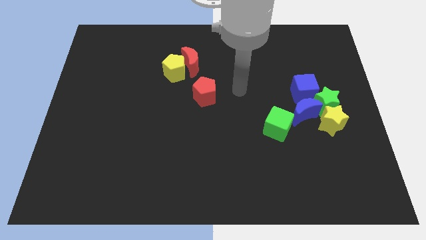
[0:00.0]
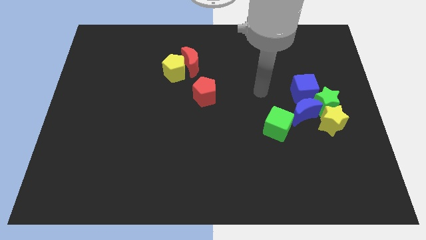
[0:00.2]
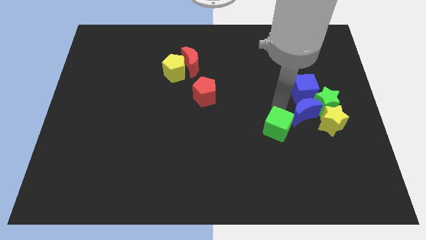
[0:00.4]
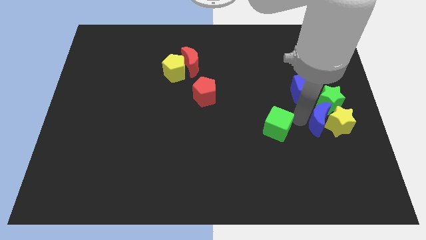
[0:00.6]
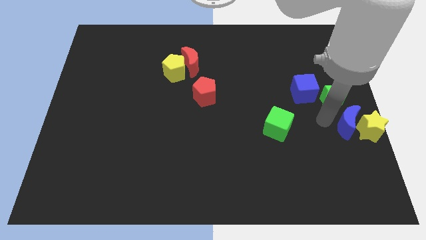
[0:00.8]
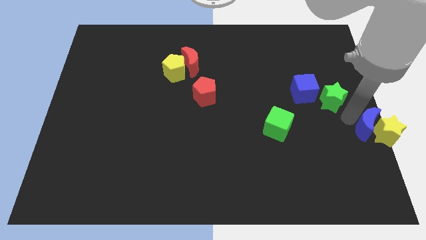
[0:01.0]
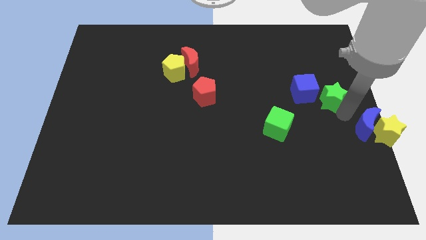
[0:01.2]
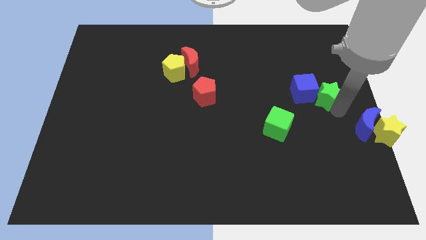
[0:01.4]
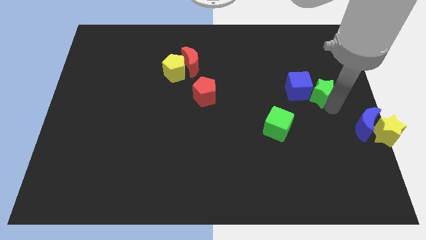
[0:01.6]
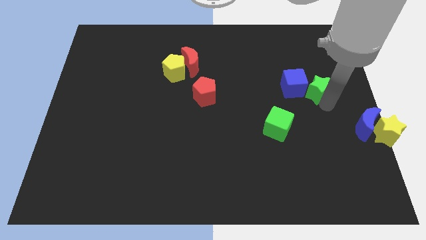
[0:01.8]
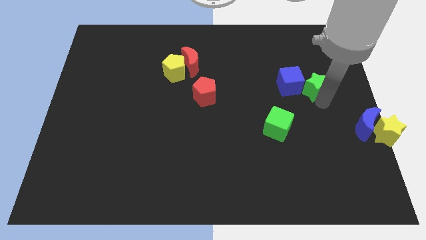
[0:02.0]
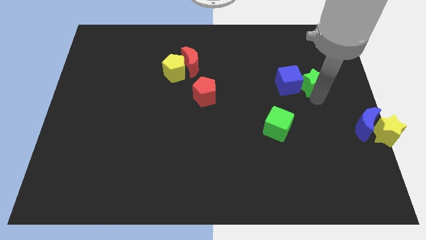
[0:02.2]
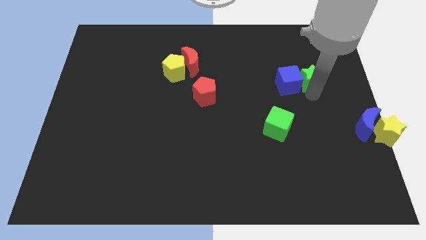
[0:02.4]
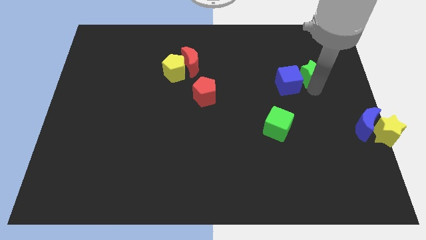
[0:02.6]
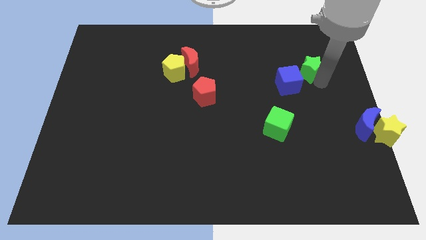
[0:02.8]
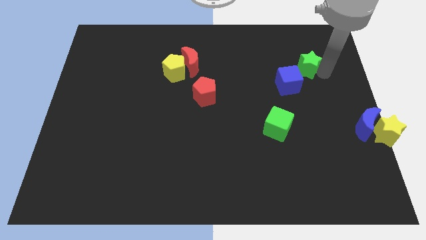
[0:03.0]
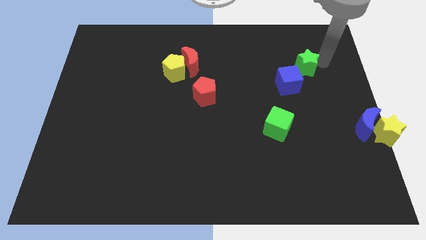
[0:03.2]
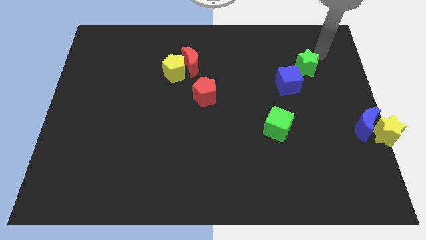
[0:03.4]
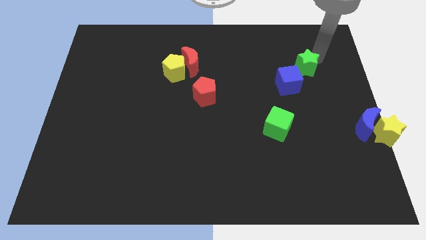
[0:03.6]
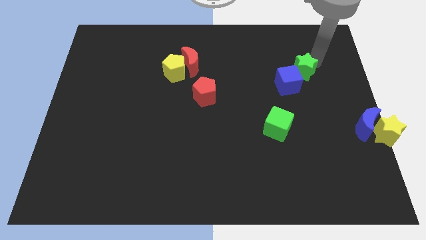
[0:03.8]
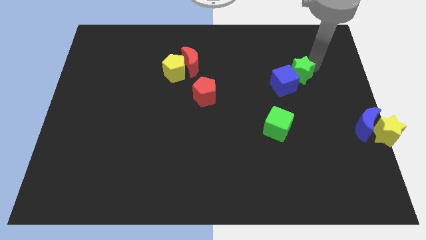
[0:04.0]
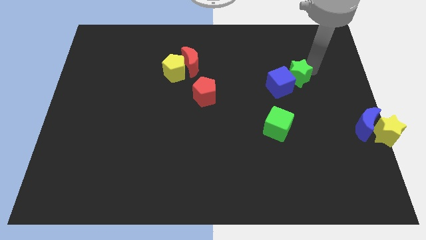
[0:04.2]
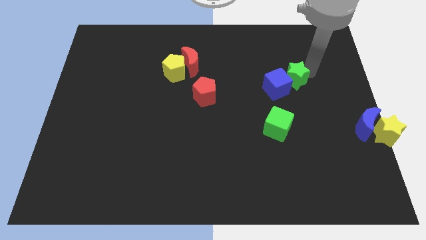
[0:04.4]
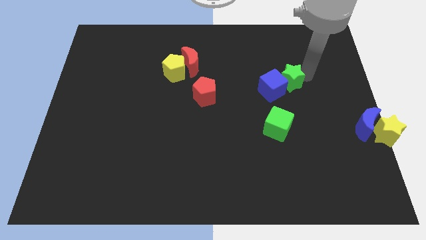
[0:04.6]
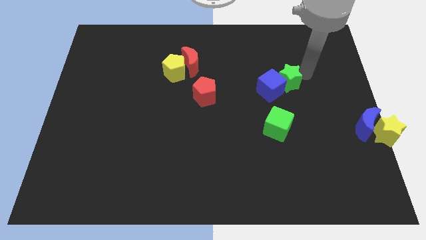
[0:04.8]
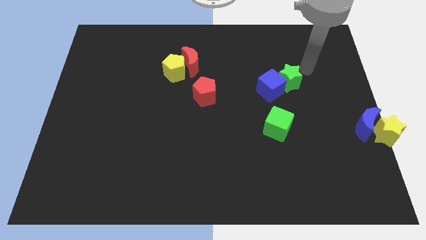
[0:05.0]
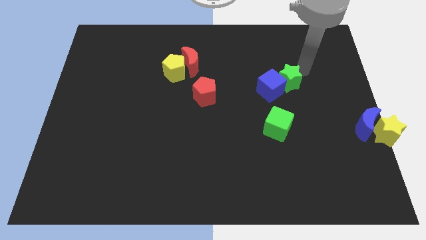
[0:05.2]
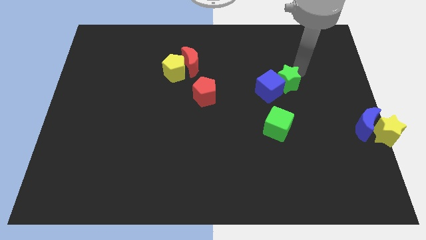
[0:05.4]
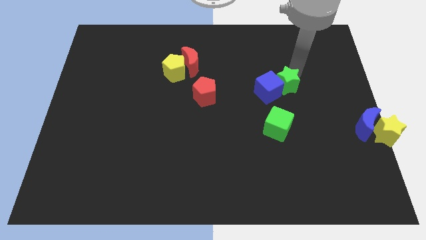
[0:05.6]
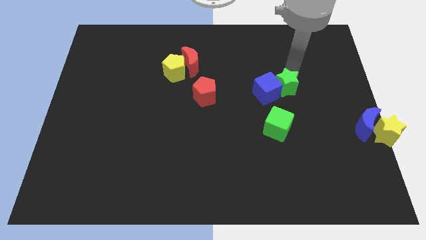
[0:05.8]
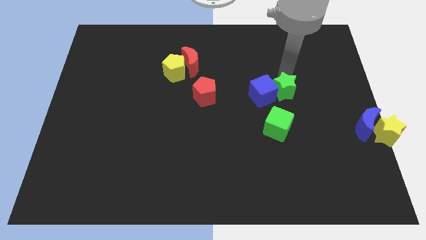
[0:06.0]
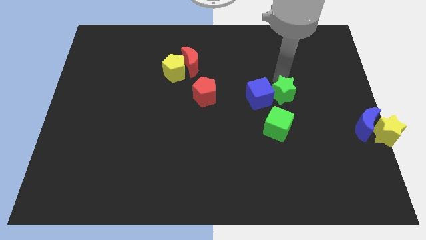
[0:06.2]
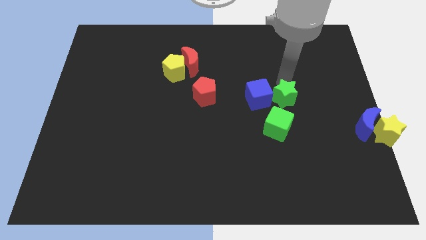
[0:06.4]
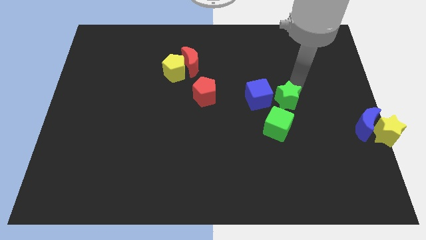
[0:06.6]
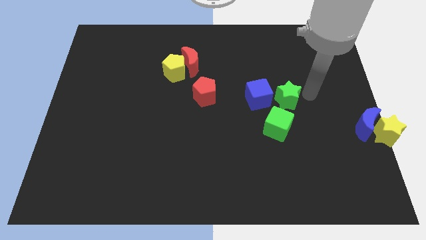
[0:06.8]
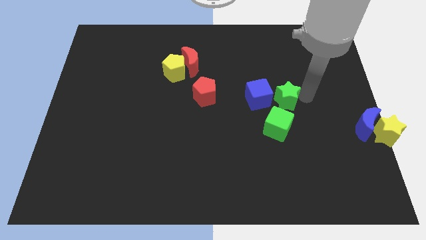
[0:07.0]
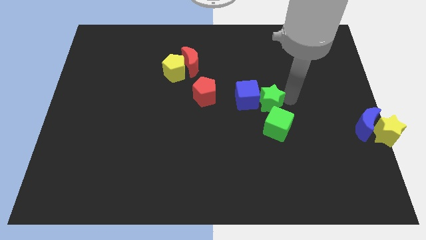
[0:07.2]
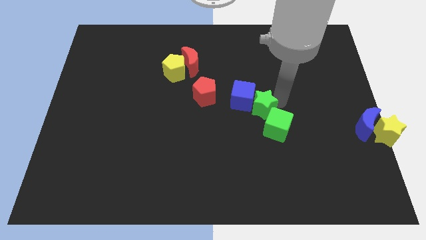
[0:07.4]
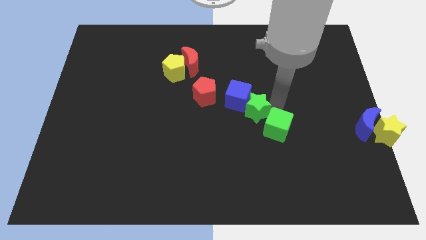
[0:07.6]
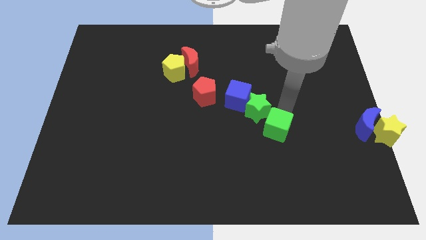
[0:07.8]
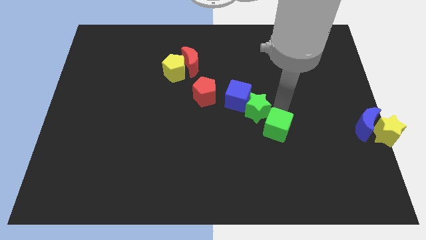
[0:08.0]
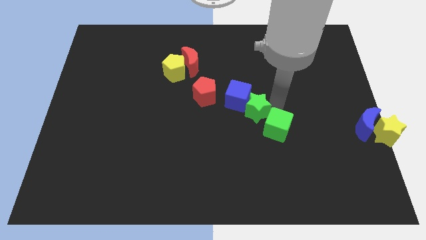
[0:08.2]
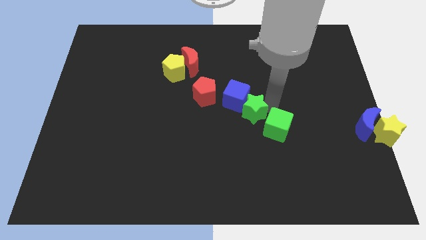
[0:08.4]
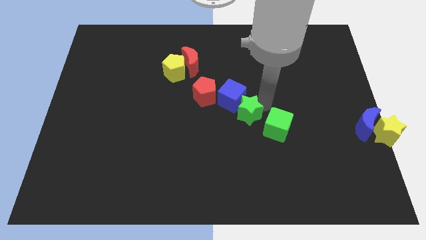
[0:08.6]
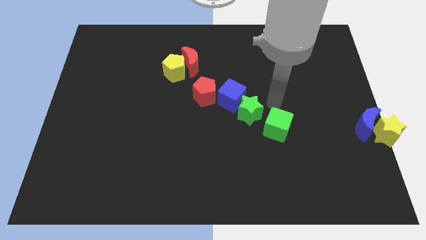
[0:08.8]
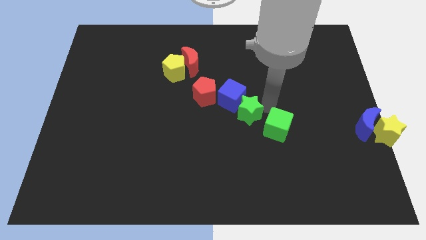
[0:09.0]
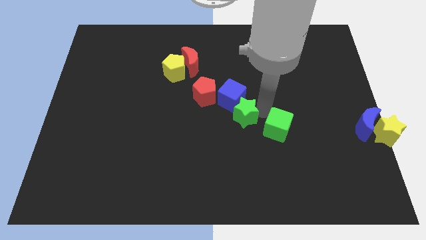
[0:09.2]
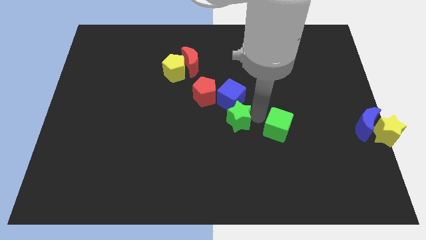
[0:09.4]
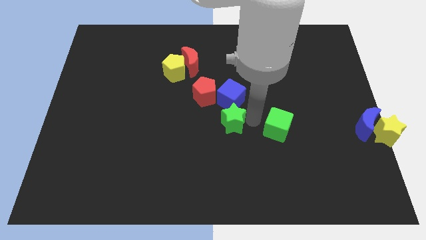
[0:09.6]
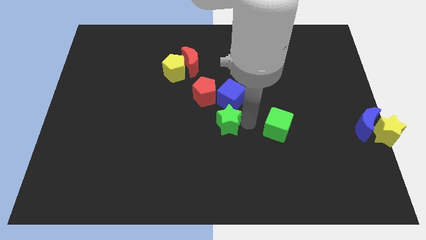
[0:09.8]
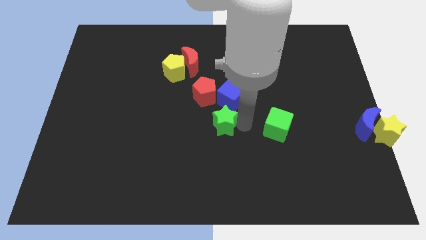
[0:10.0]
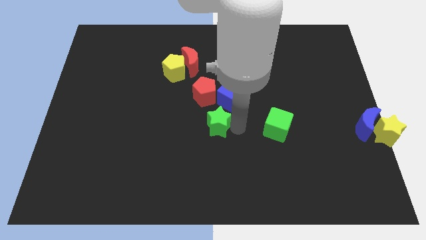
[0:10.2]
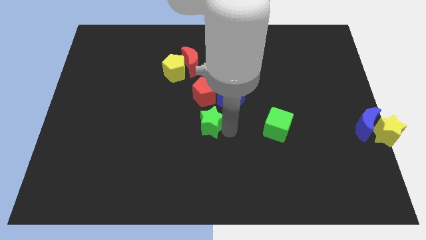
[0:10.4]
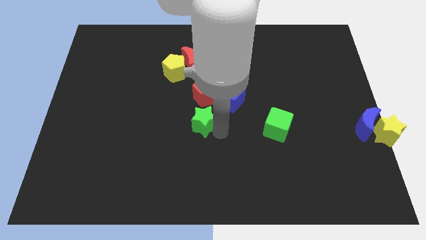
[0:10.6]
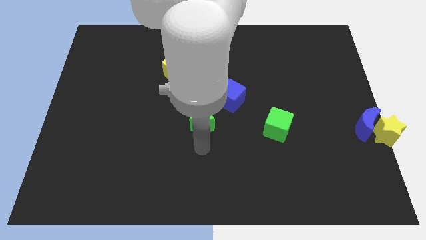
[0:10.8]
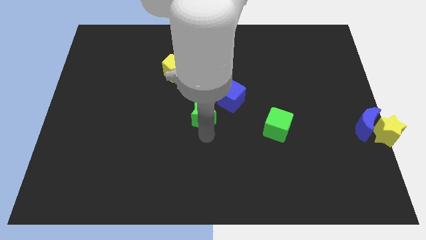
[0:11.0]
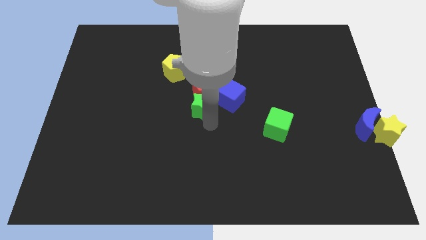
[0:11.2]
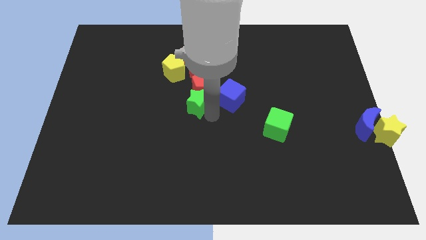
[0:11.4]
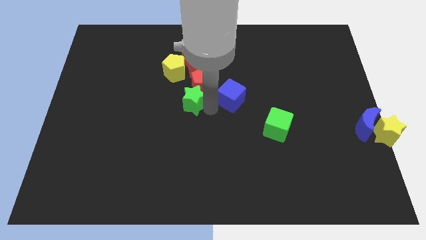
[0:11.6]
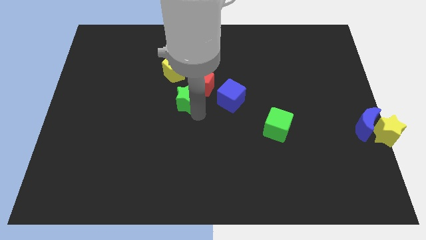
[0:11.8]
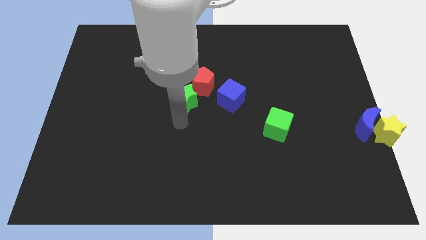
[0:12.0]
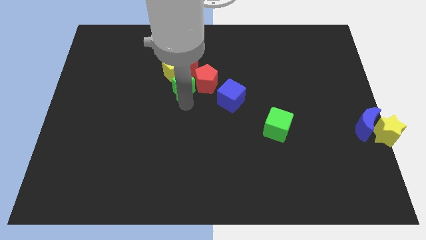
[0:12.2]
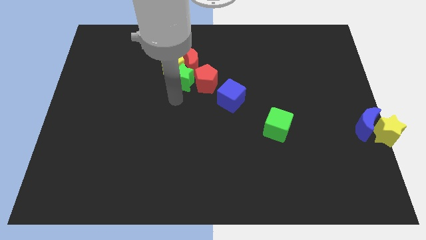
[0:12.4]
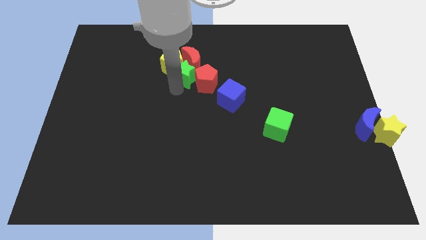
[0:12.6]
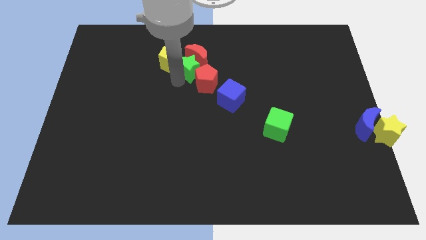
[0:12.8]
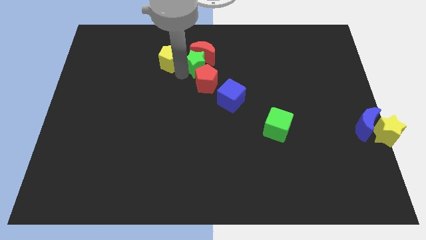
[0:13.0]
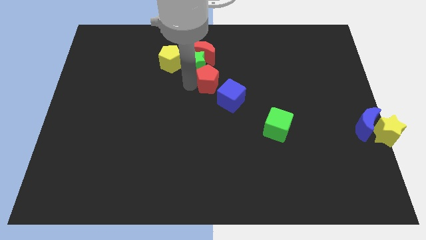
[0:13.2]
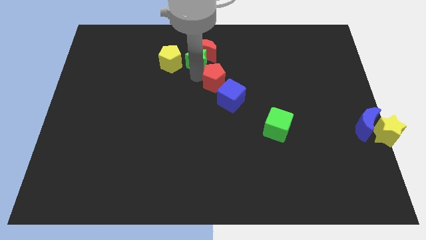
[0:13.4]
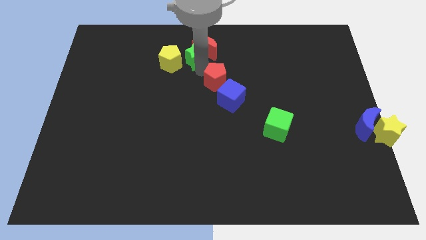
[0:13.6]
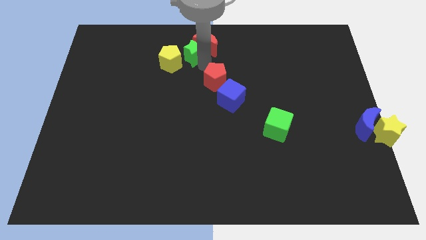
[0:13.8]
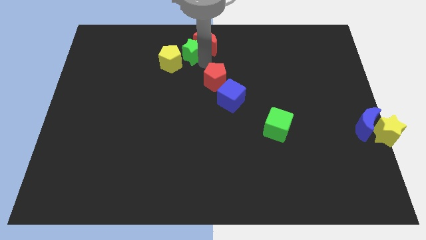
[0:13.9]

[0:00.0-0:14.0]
slide the green star to the top
